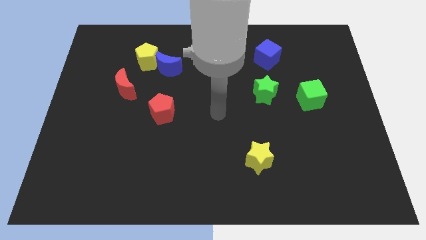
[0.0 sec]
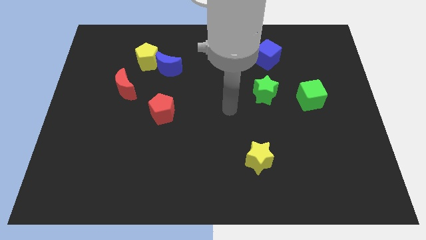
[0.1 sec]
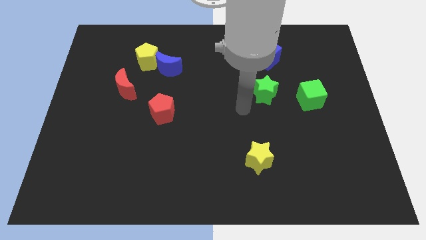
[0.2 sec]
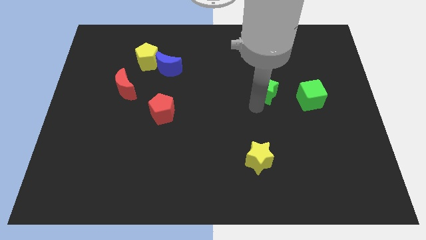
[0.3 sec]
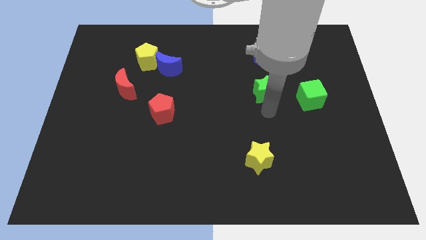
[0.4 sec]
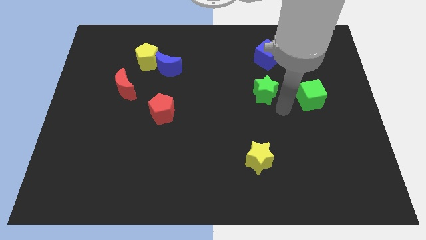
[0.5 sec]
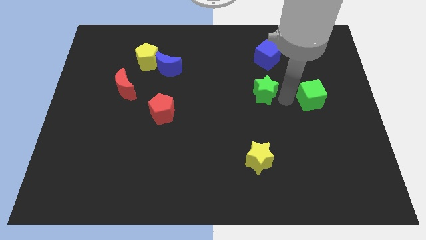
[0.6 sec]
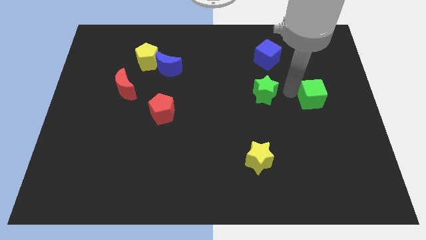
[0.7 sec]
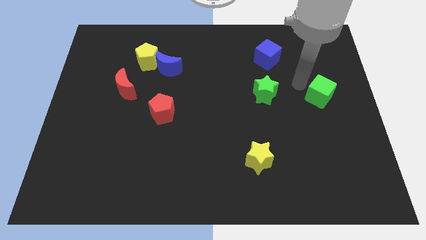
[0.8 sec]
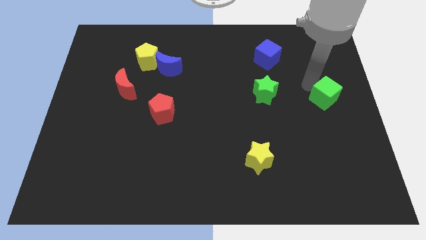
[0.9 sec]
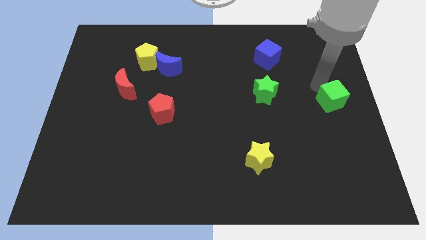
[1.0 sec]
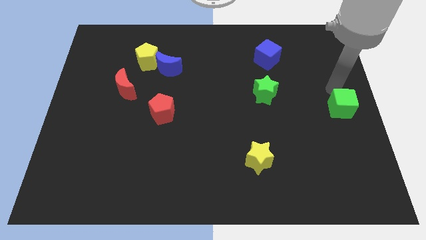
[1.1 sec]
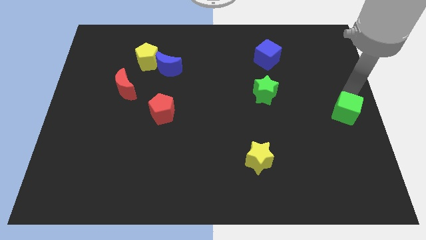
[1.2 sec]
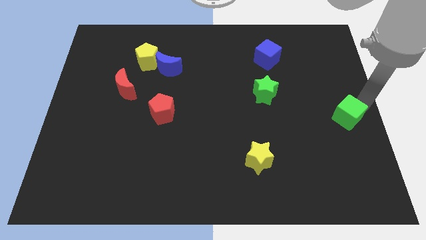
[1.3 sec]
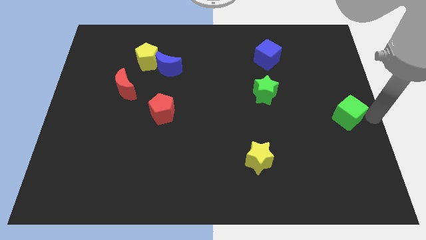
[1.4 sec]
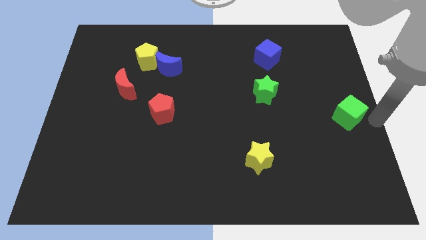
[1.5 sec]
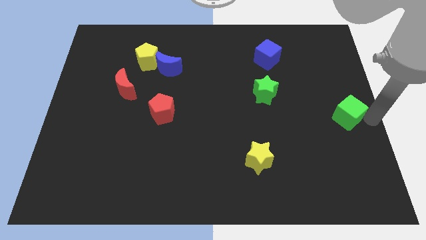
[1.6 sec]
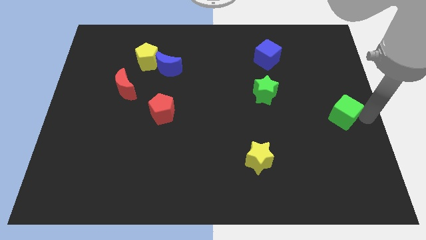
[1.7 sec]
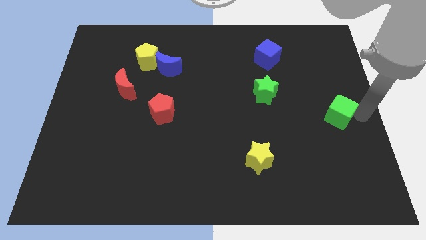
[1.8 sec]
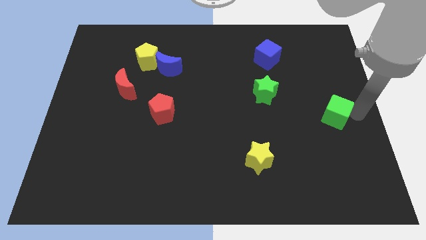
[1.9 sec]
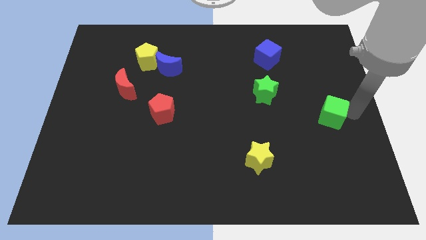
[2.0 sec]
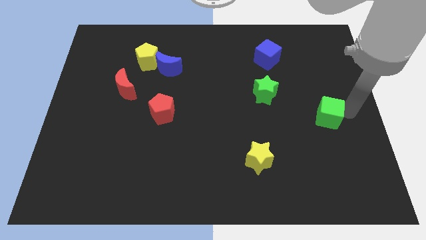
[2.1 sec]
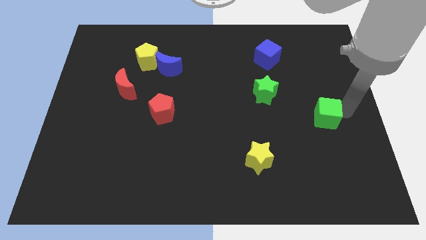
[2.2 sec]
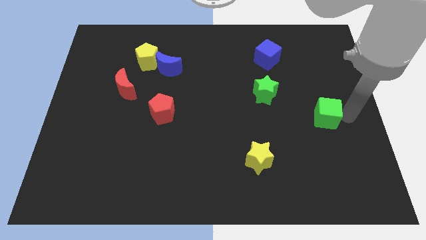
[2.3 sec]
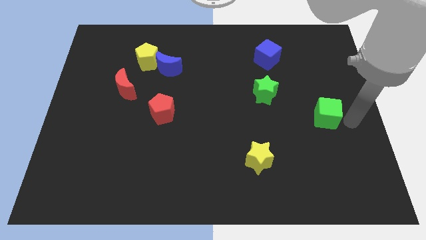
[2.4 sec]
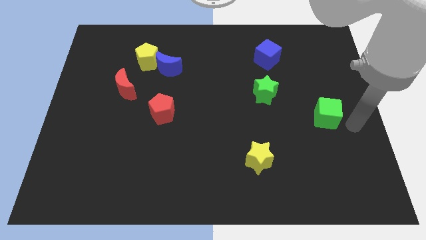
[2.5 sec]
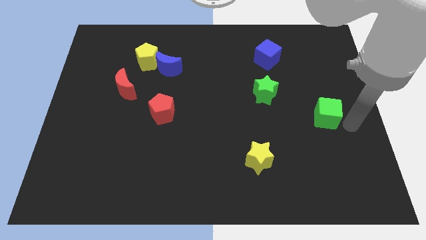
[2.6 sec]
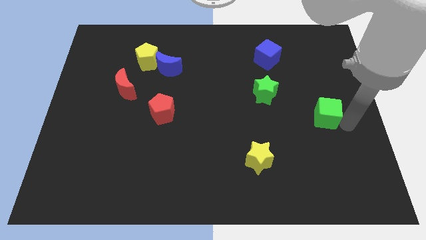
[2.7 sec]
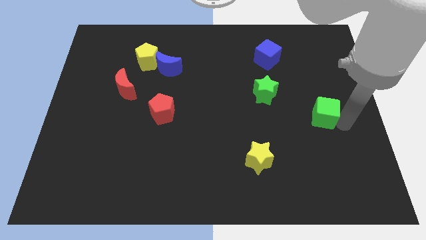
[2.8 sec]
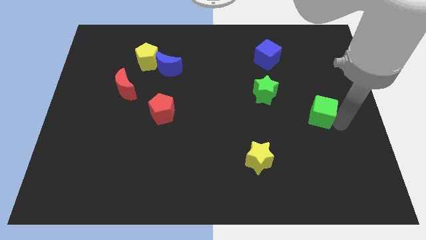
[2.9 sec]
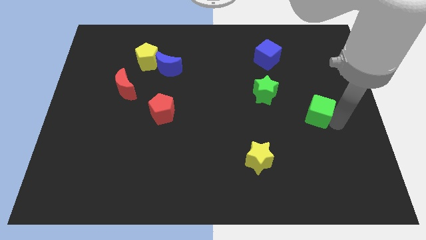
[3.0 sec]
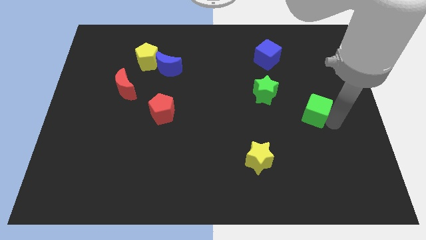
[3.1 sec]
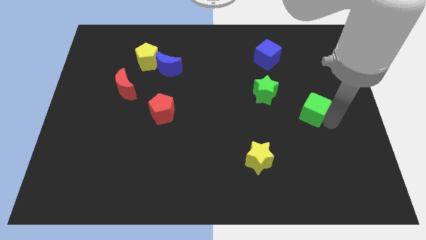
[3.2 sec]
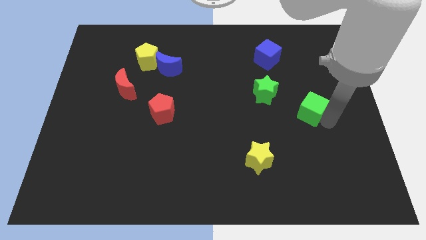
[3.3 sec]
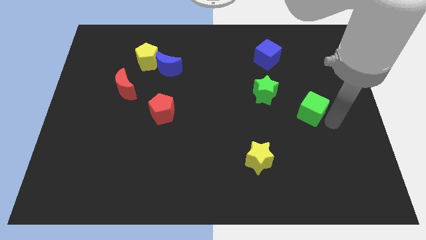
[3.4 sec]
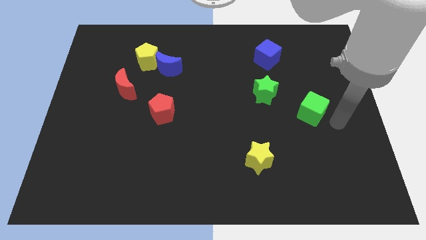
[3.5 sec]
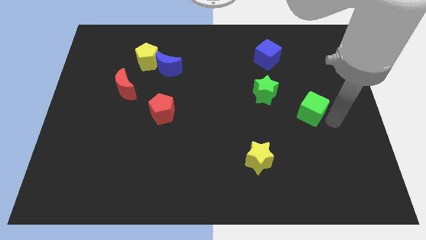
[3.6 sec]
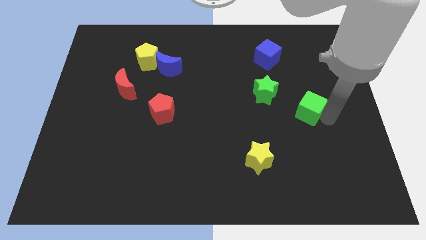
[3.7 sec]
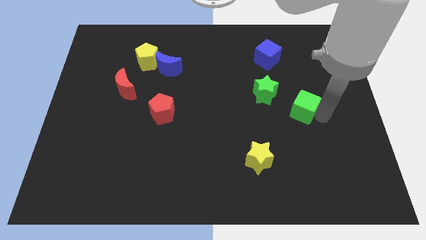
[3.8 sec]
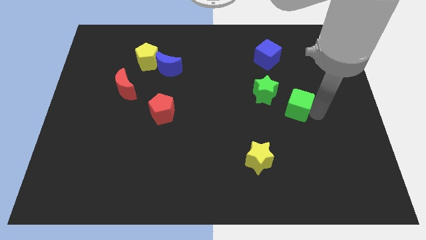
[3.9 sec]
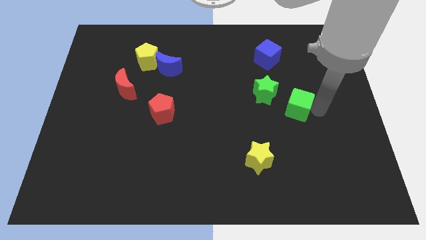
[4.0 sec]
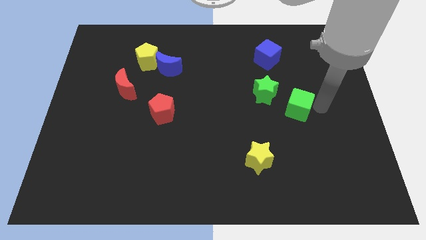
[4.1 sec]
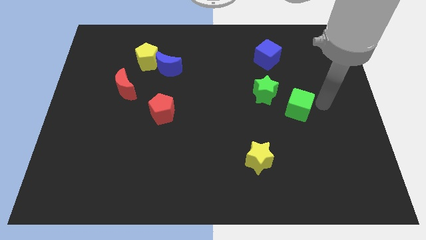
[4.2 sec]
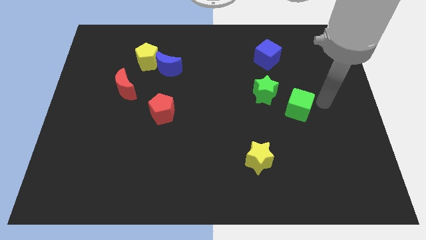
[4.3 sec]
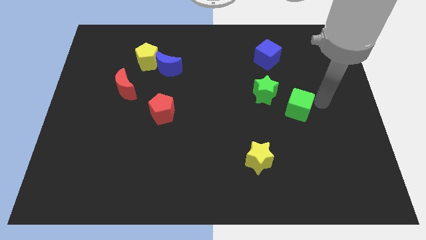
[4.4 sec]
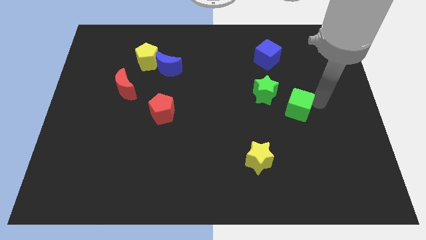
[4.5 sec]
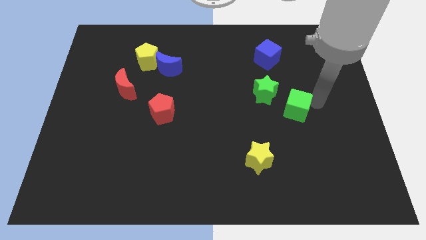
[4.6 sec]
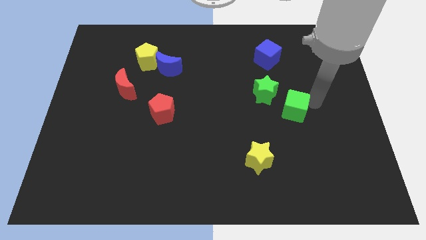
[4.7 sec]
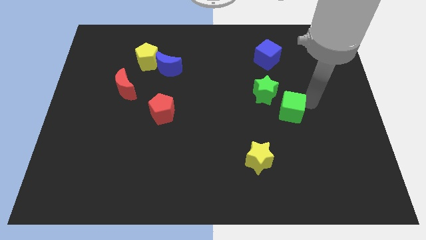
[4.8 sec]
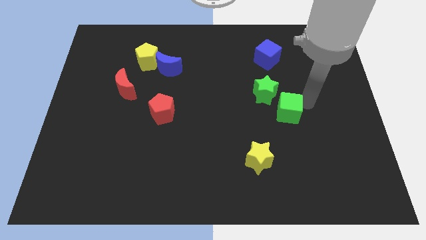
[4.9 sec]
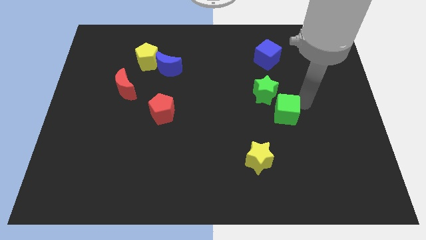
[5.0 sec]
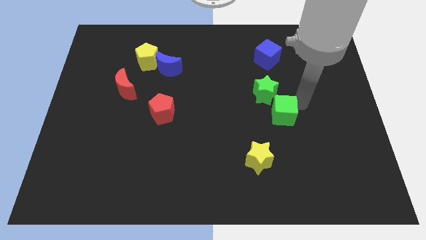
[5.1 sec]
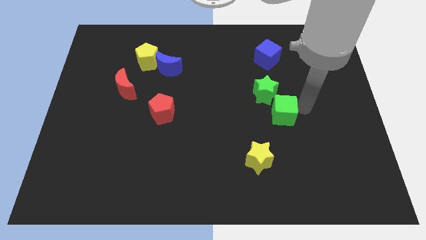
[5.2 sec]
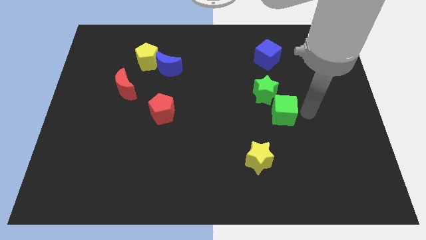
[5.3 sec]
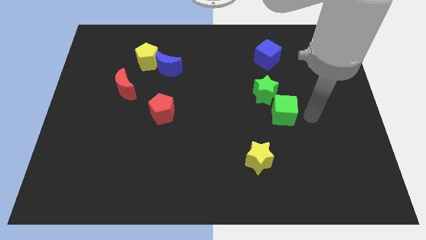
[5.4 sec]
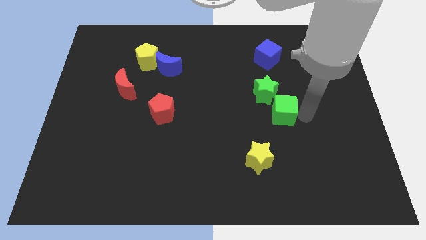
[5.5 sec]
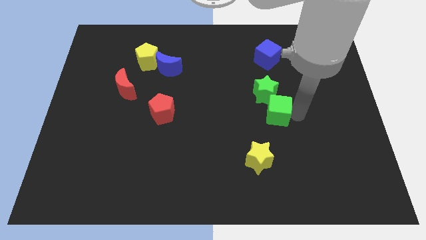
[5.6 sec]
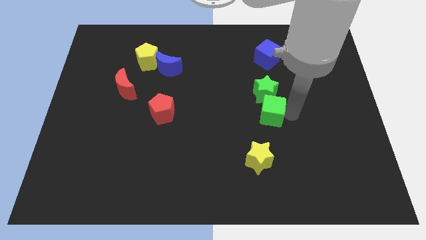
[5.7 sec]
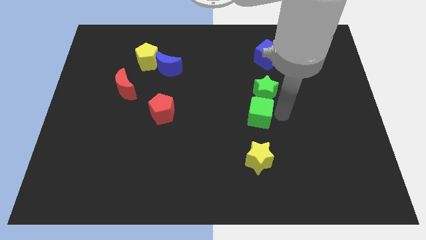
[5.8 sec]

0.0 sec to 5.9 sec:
put the green cube to the middle

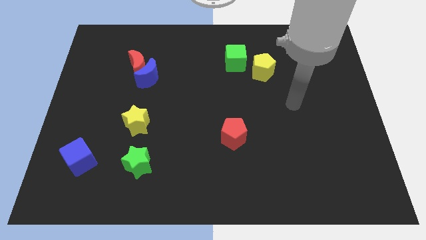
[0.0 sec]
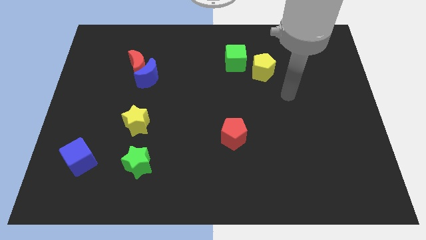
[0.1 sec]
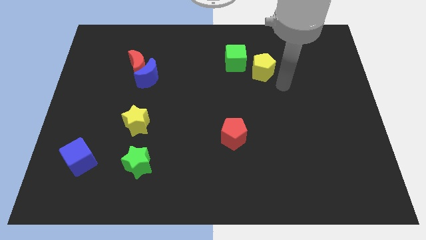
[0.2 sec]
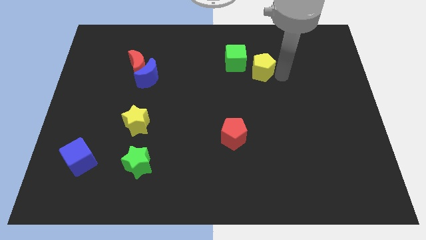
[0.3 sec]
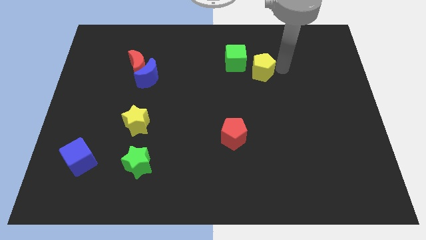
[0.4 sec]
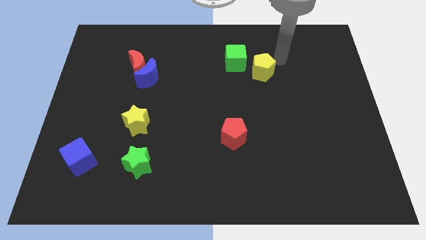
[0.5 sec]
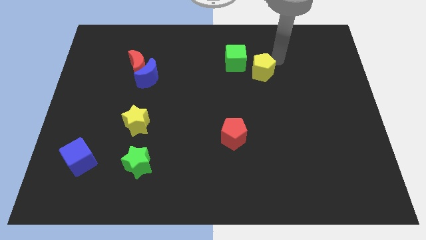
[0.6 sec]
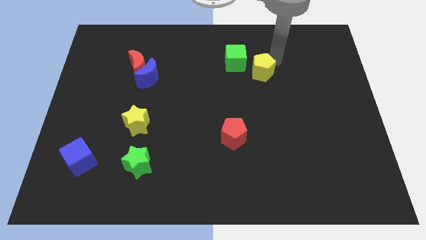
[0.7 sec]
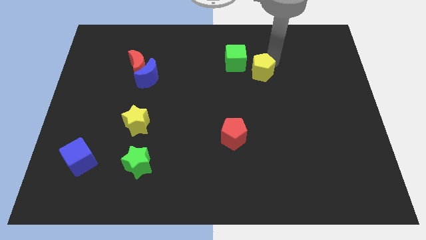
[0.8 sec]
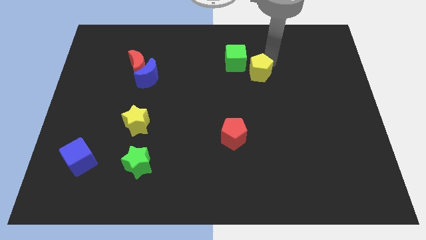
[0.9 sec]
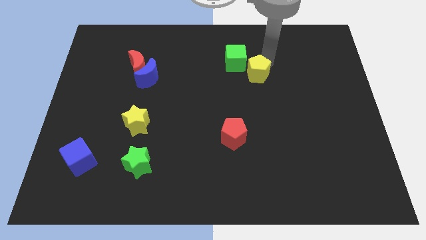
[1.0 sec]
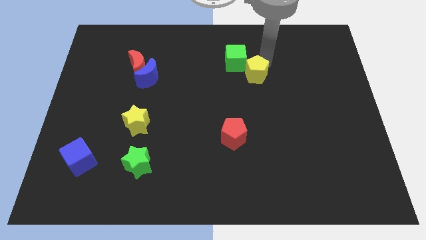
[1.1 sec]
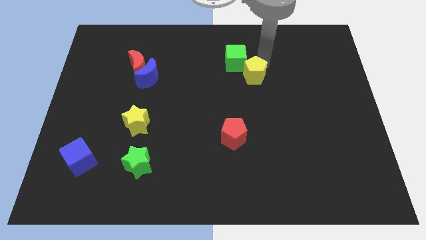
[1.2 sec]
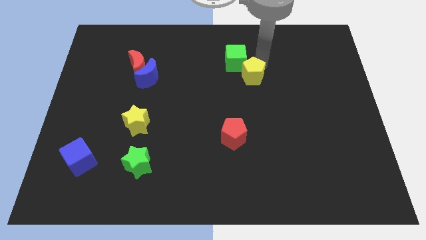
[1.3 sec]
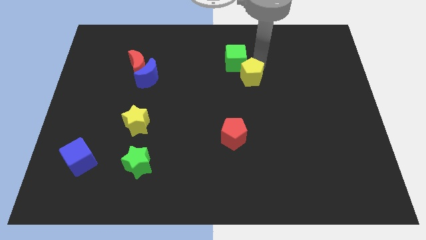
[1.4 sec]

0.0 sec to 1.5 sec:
push the yellow pentagon to the center of the board
